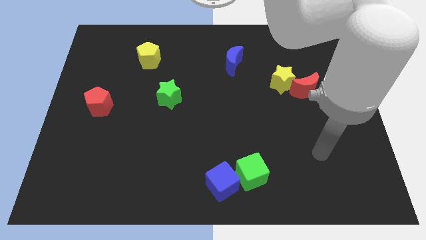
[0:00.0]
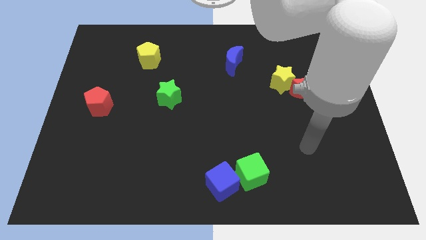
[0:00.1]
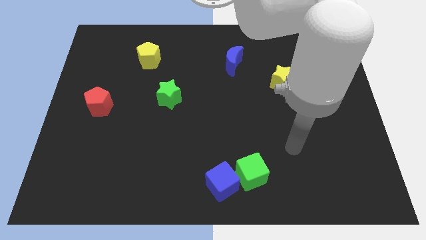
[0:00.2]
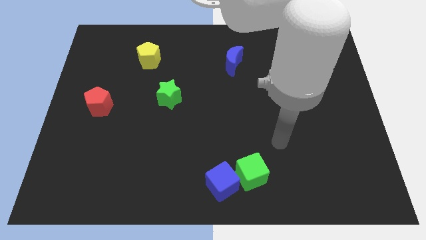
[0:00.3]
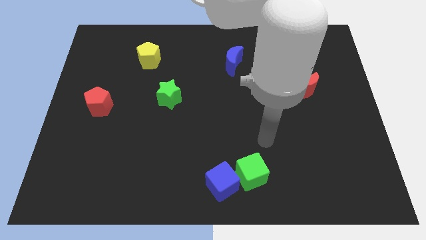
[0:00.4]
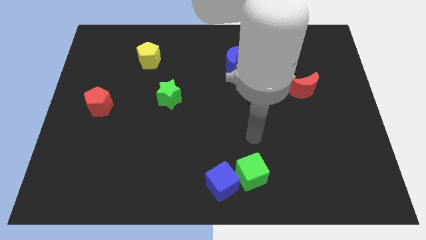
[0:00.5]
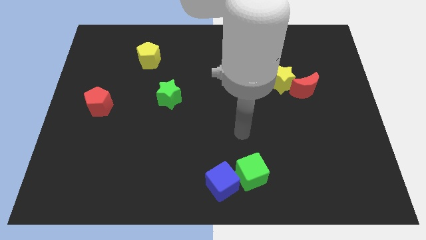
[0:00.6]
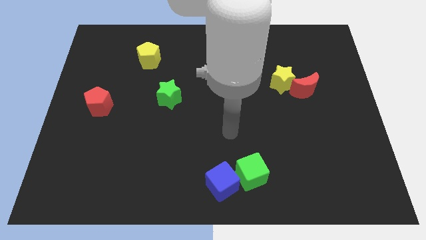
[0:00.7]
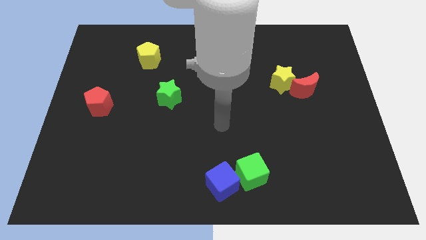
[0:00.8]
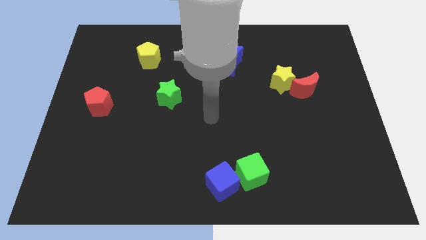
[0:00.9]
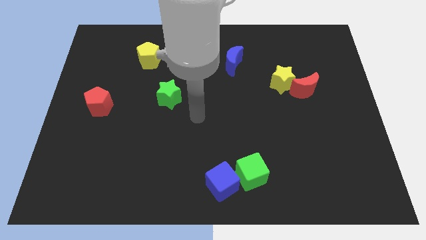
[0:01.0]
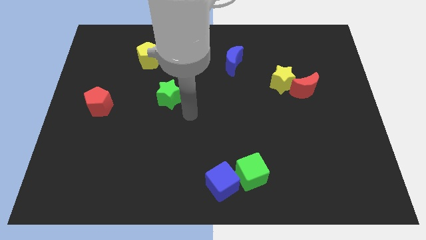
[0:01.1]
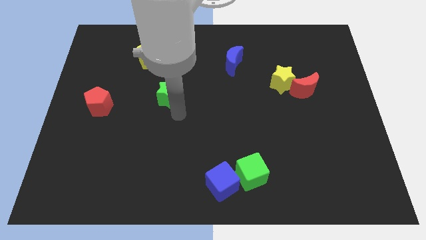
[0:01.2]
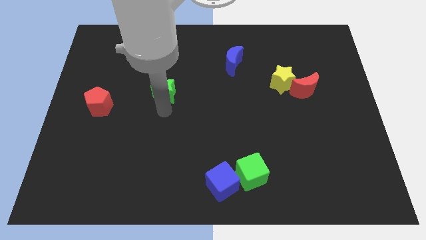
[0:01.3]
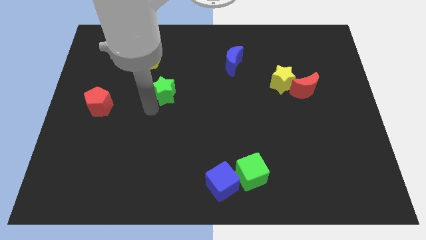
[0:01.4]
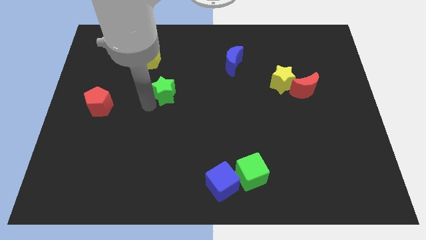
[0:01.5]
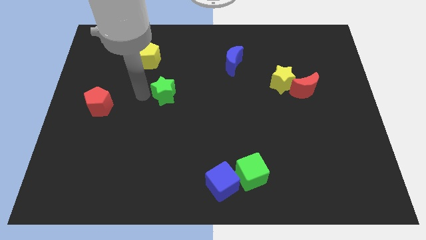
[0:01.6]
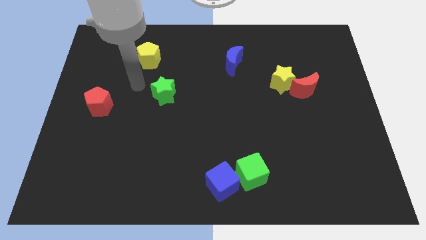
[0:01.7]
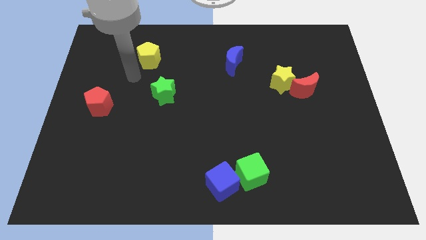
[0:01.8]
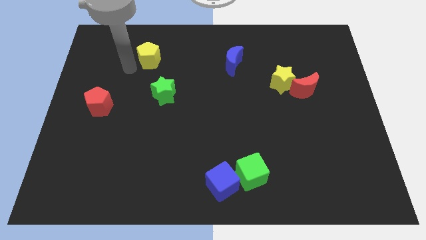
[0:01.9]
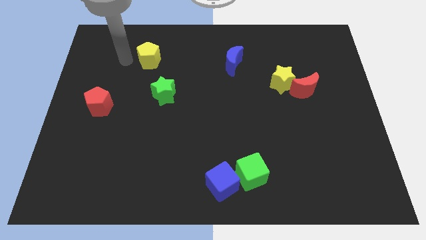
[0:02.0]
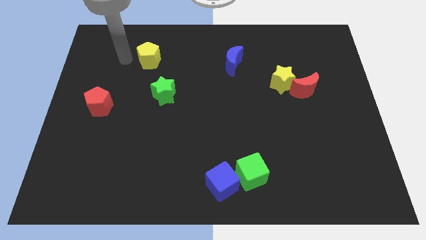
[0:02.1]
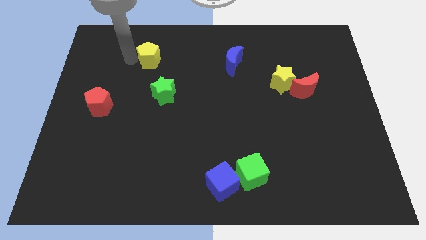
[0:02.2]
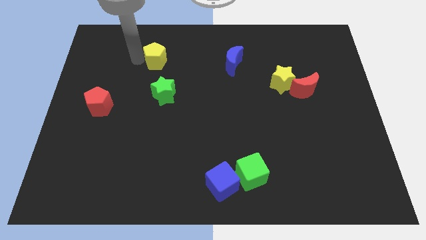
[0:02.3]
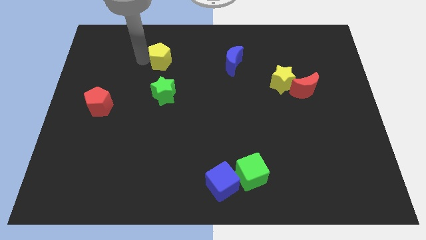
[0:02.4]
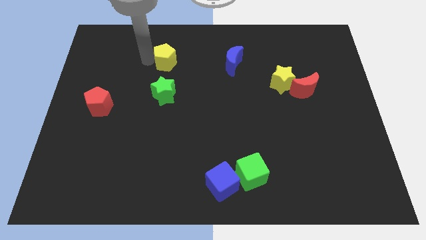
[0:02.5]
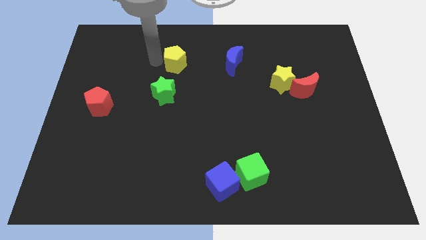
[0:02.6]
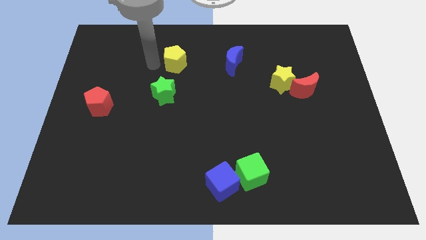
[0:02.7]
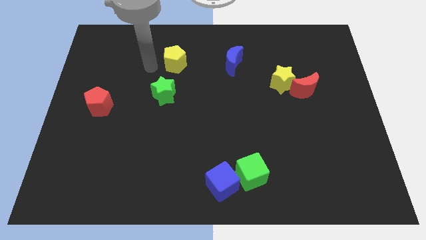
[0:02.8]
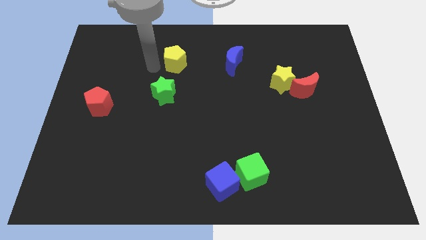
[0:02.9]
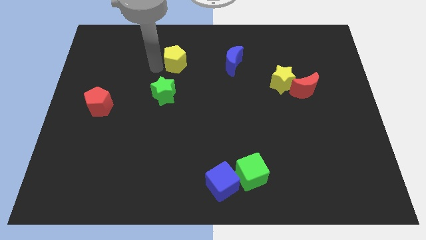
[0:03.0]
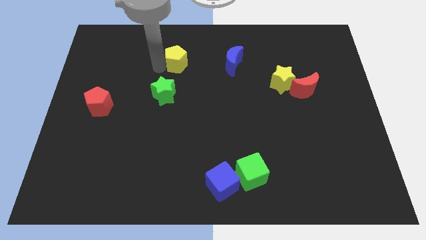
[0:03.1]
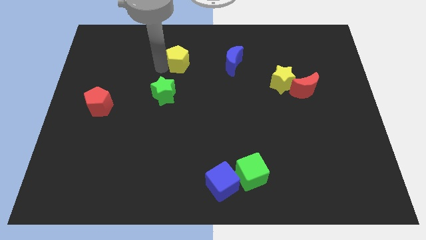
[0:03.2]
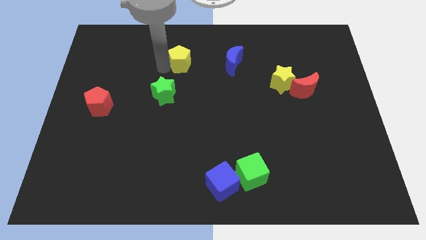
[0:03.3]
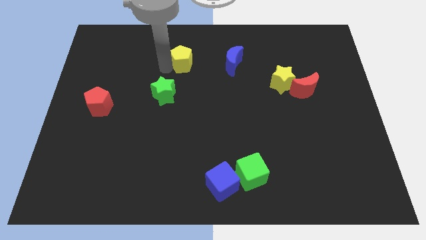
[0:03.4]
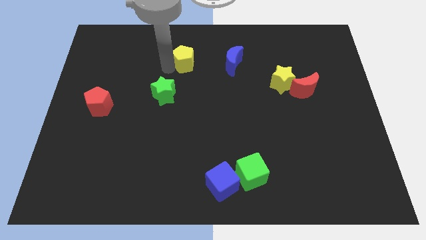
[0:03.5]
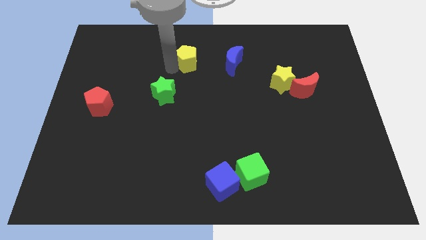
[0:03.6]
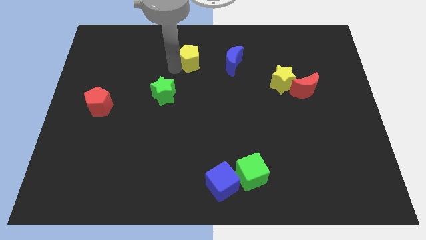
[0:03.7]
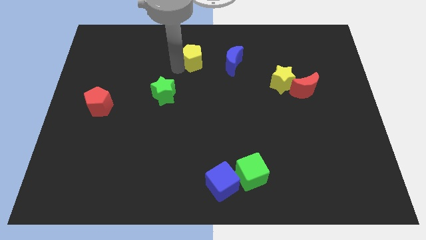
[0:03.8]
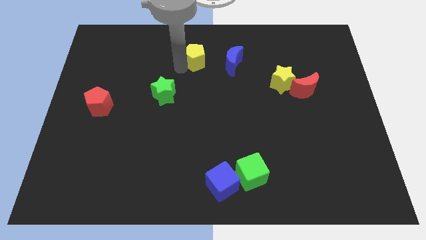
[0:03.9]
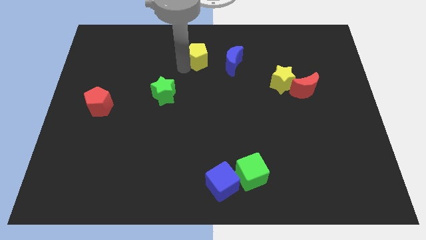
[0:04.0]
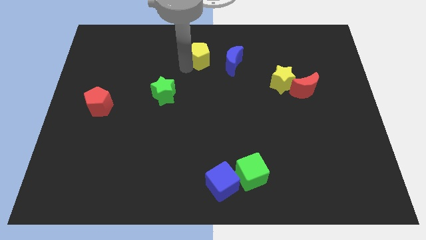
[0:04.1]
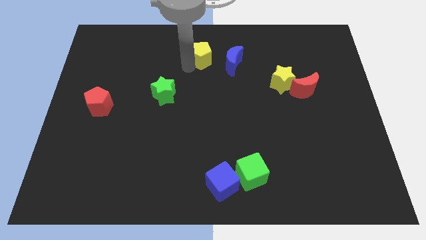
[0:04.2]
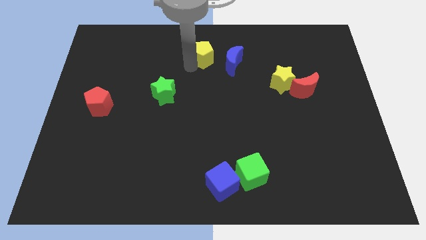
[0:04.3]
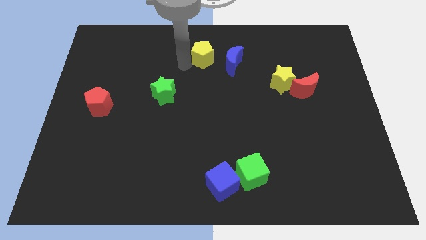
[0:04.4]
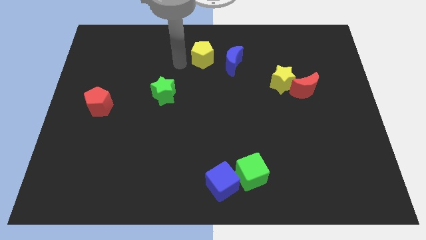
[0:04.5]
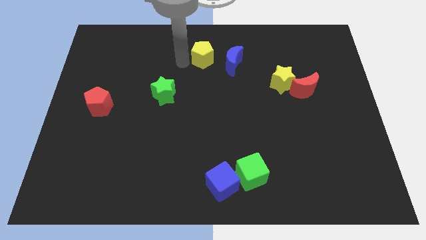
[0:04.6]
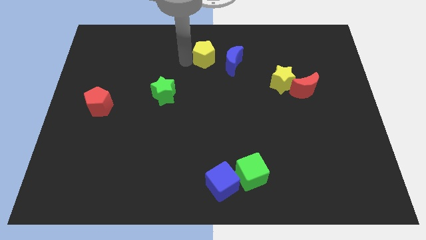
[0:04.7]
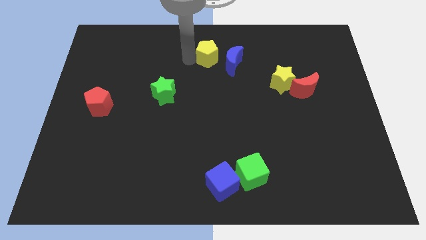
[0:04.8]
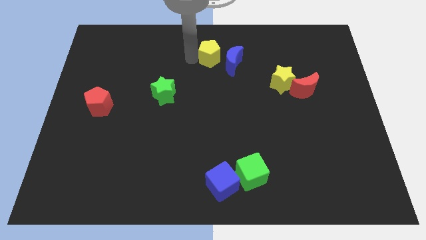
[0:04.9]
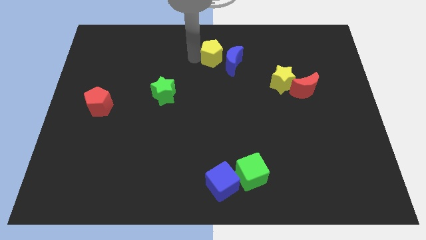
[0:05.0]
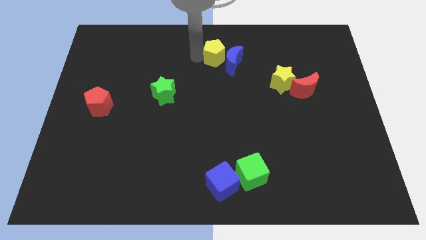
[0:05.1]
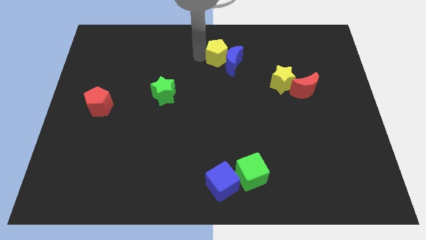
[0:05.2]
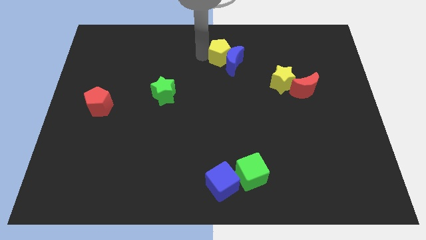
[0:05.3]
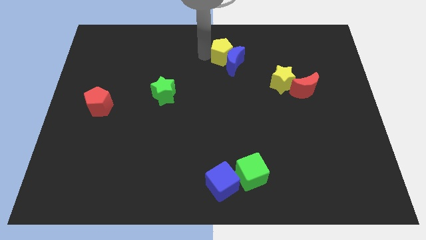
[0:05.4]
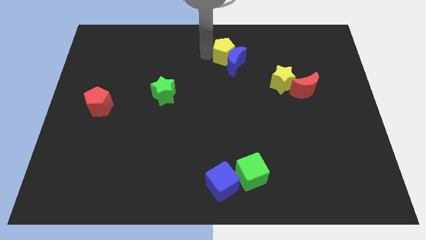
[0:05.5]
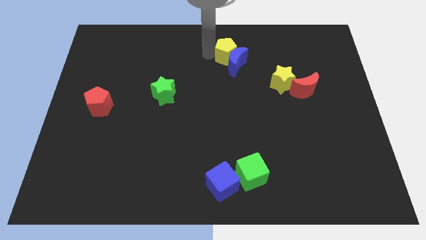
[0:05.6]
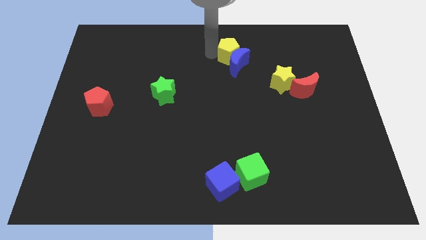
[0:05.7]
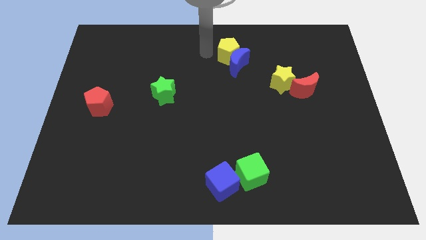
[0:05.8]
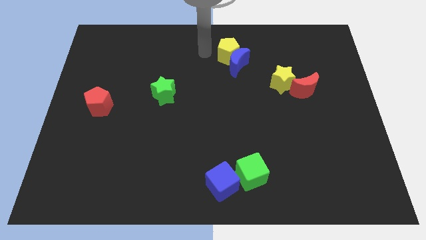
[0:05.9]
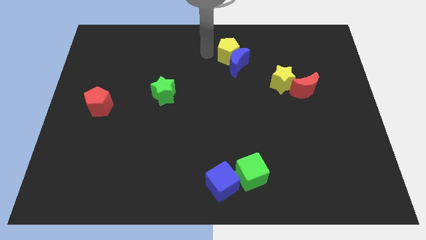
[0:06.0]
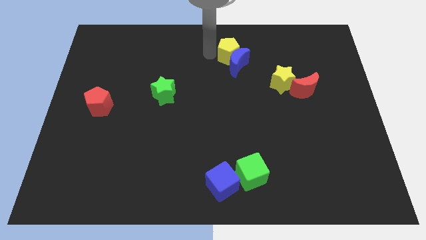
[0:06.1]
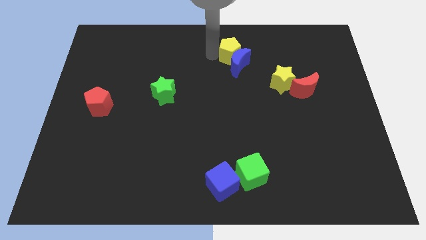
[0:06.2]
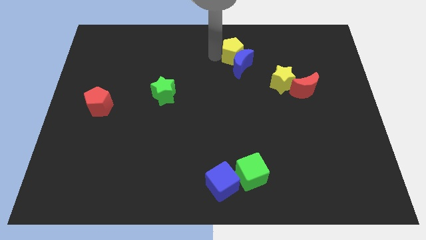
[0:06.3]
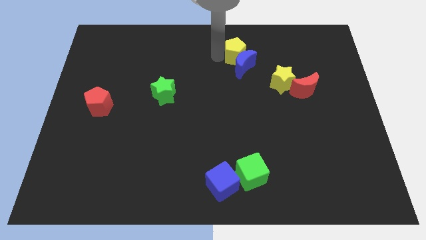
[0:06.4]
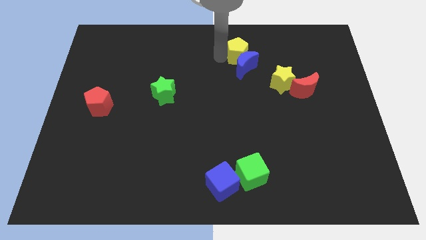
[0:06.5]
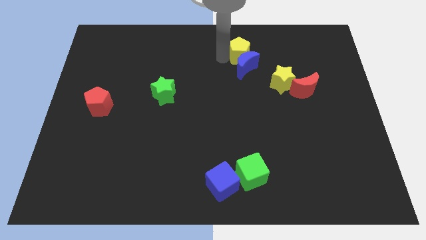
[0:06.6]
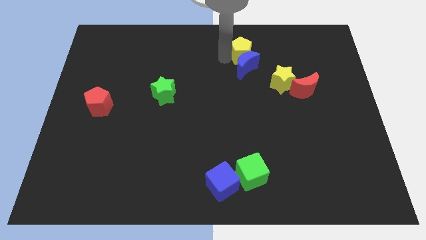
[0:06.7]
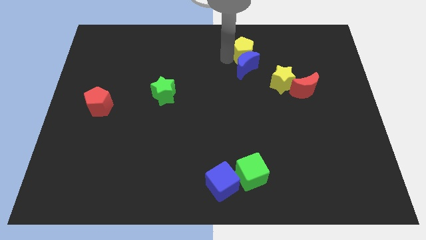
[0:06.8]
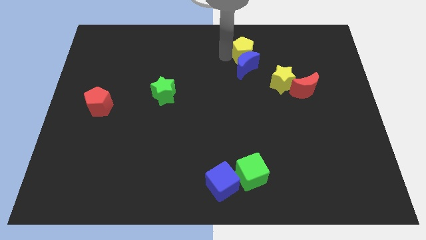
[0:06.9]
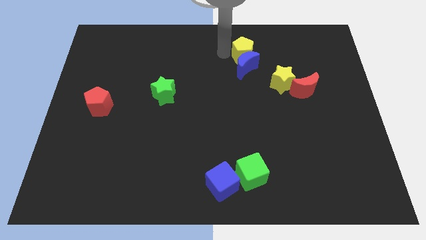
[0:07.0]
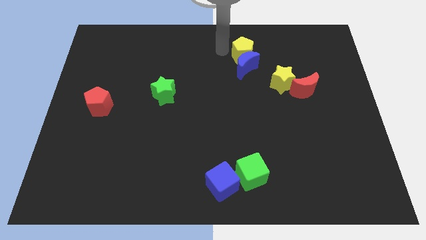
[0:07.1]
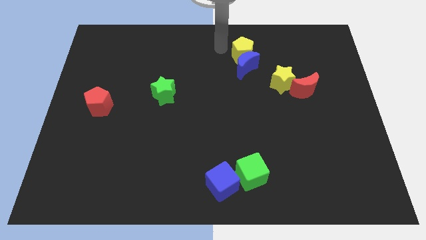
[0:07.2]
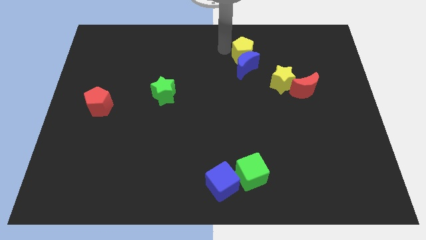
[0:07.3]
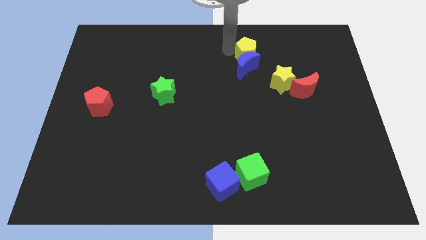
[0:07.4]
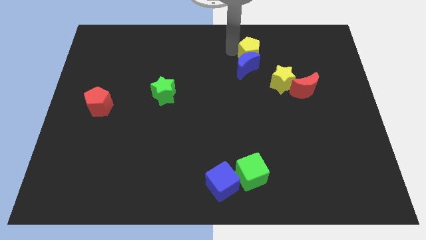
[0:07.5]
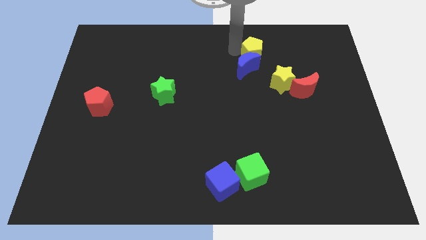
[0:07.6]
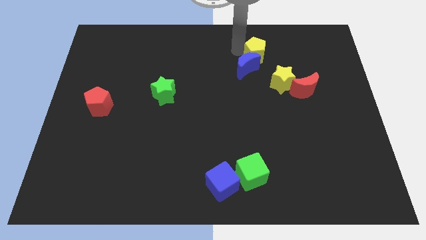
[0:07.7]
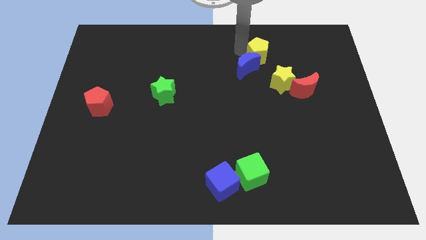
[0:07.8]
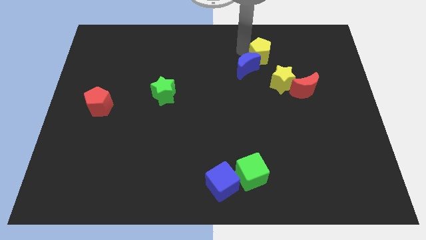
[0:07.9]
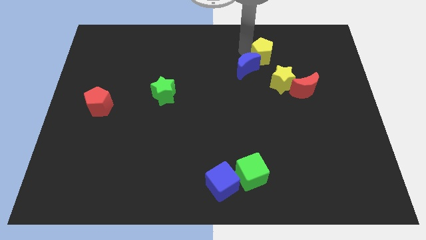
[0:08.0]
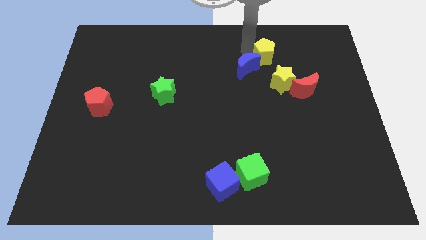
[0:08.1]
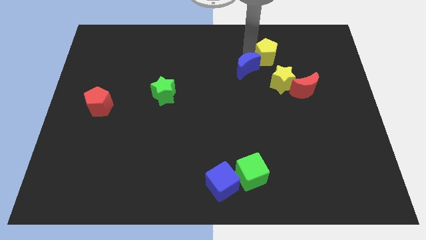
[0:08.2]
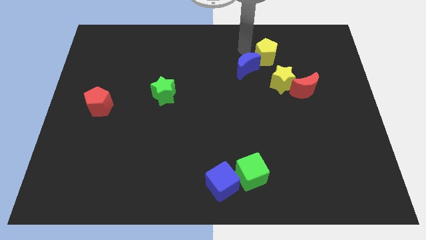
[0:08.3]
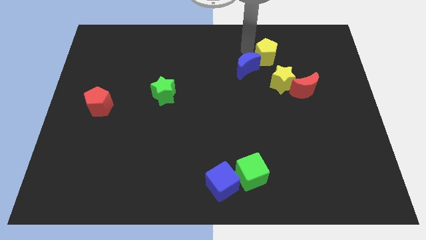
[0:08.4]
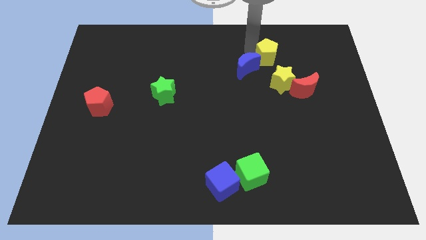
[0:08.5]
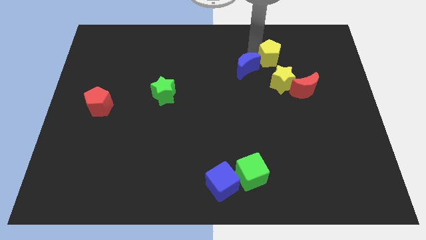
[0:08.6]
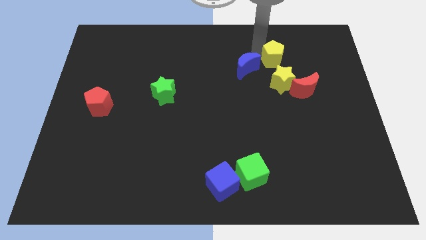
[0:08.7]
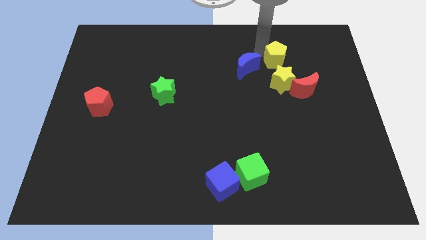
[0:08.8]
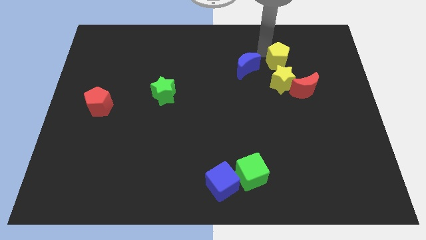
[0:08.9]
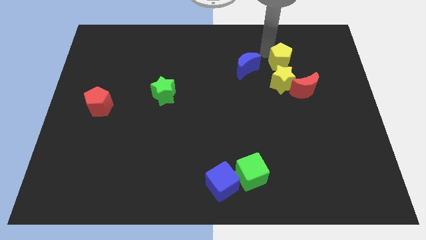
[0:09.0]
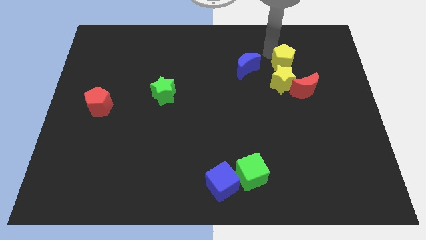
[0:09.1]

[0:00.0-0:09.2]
push the yellow pentagon diagonally up and to the right of the yellow star
